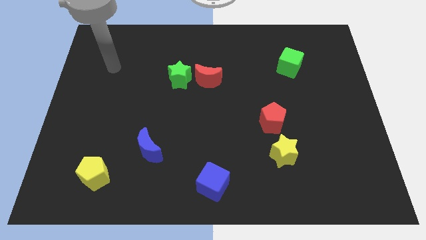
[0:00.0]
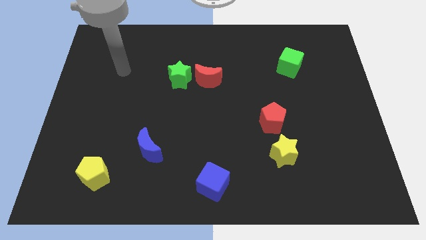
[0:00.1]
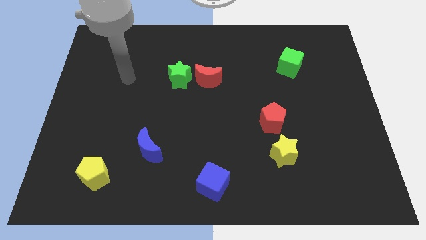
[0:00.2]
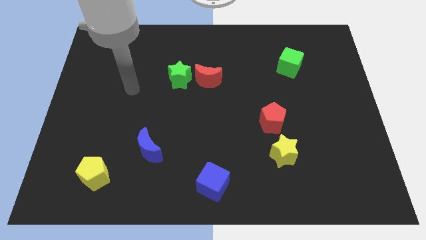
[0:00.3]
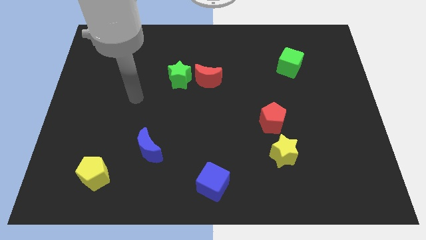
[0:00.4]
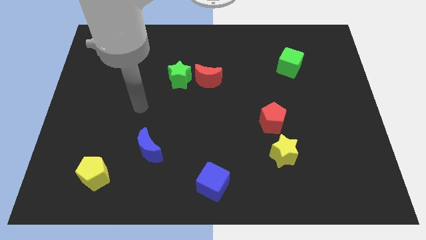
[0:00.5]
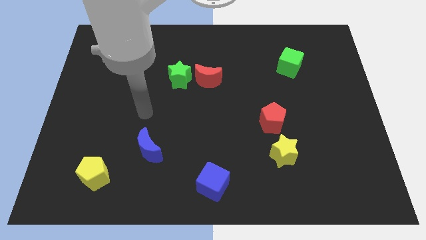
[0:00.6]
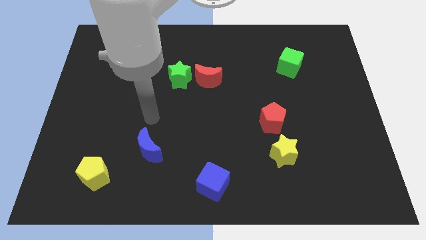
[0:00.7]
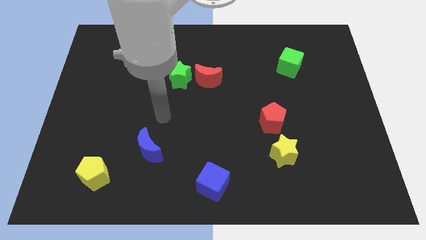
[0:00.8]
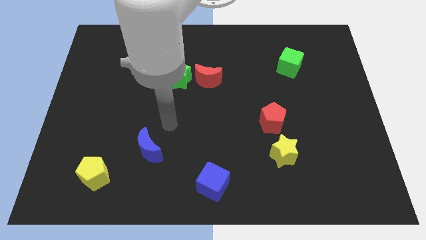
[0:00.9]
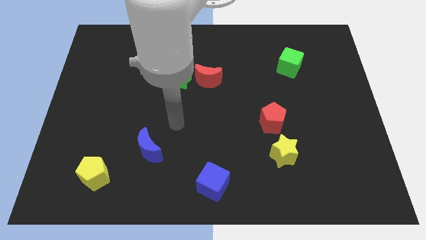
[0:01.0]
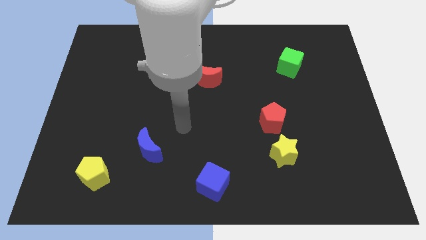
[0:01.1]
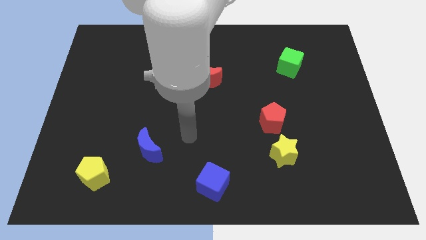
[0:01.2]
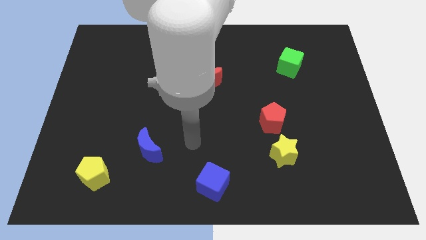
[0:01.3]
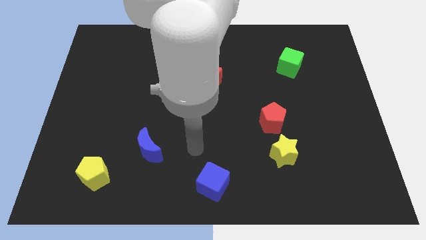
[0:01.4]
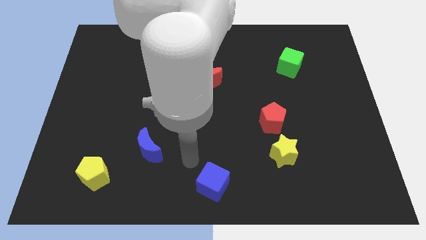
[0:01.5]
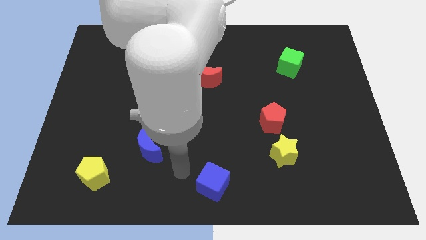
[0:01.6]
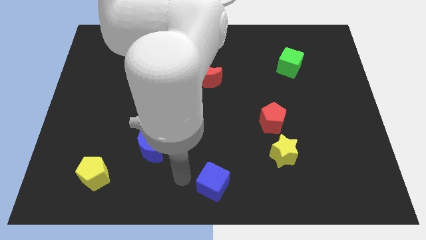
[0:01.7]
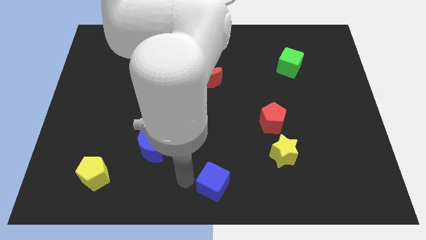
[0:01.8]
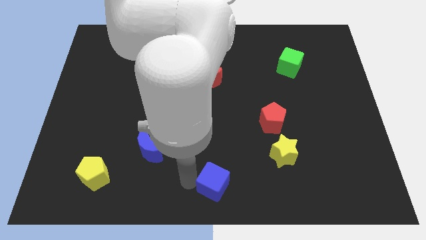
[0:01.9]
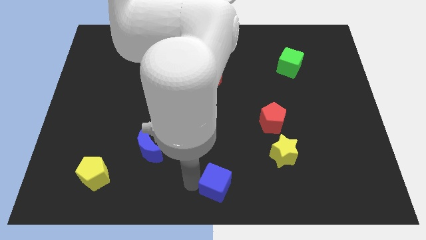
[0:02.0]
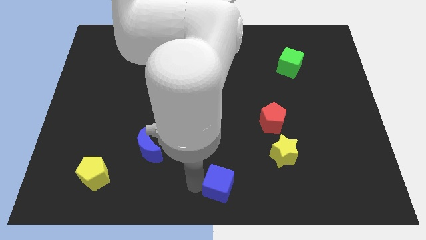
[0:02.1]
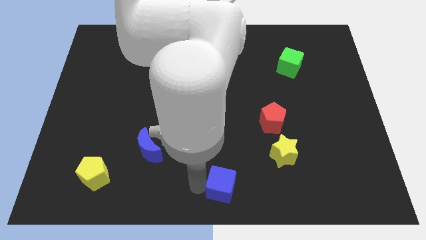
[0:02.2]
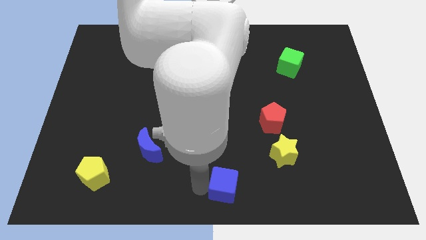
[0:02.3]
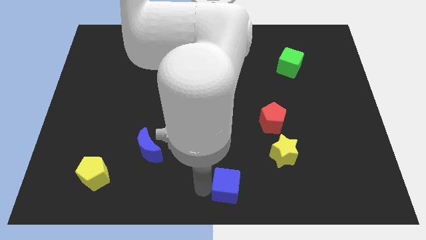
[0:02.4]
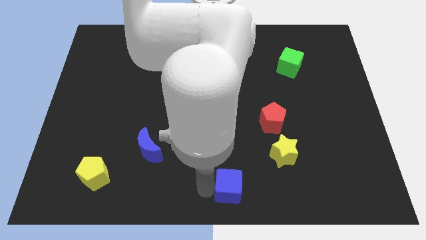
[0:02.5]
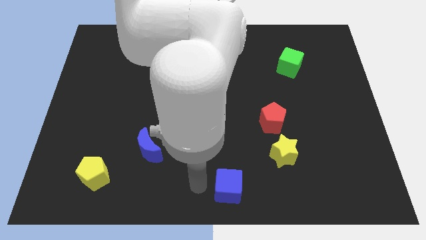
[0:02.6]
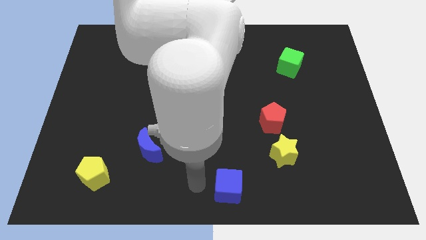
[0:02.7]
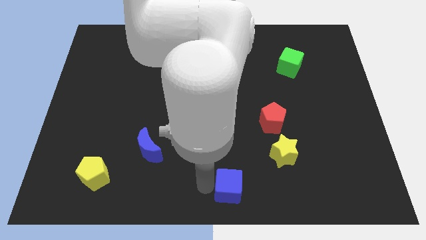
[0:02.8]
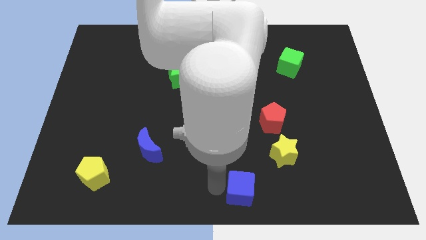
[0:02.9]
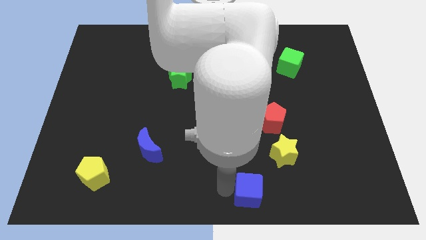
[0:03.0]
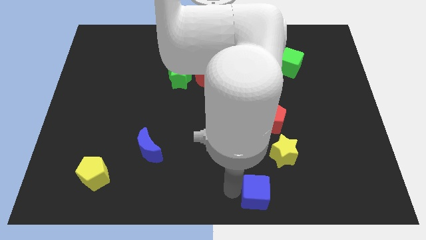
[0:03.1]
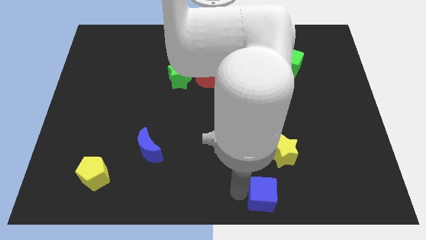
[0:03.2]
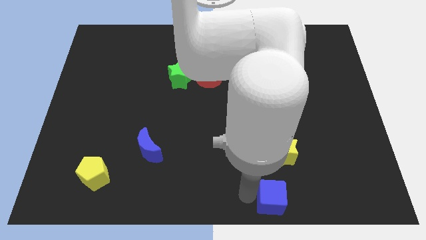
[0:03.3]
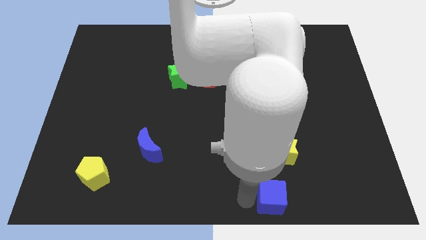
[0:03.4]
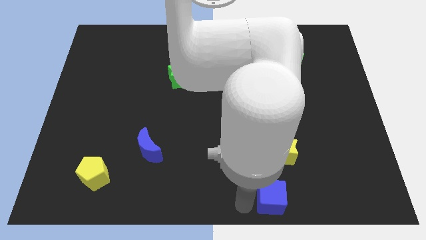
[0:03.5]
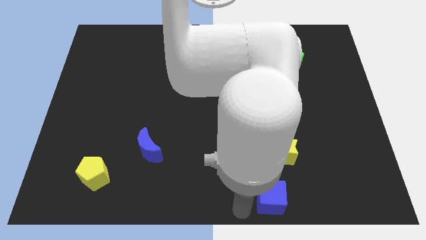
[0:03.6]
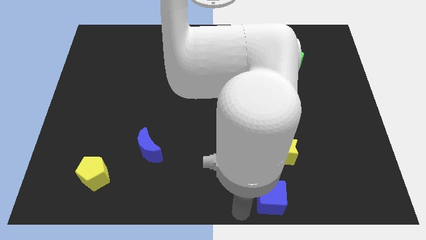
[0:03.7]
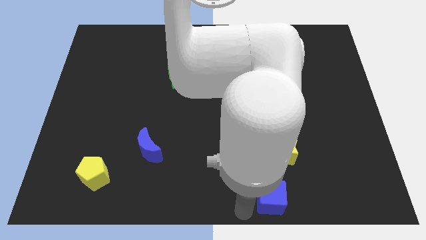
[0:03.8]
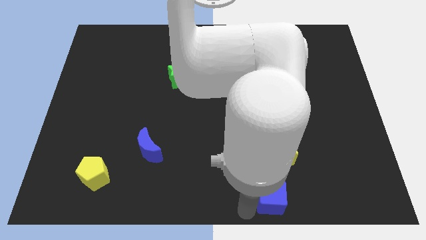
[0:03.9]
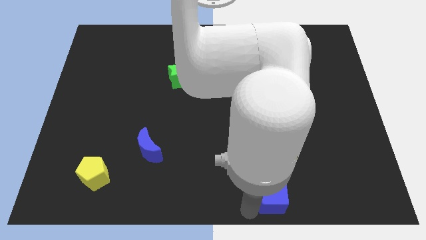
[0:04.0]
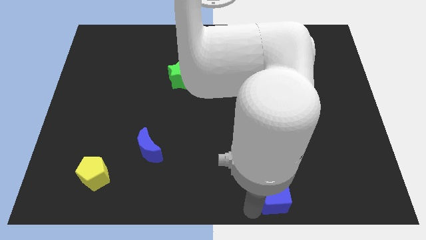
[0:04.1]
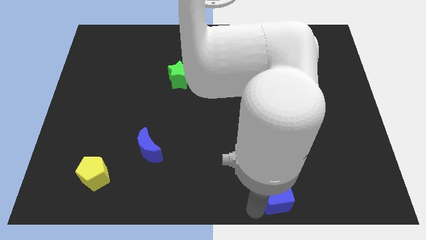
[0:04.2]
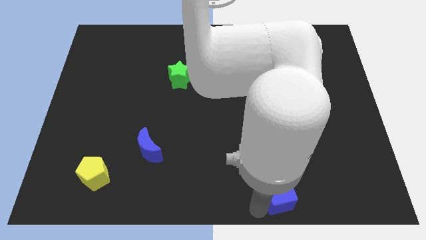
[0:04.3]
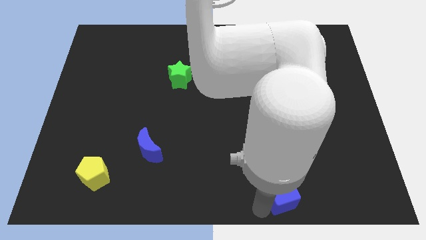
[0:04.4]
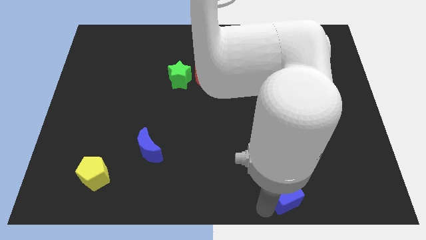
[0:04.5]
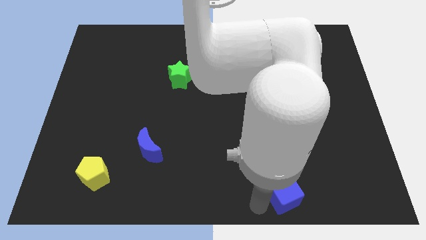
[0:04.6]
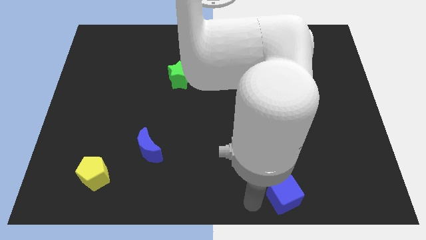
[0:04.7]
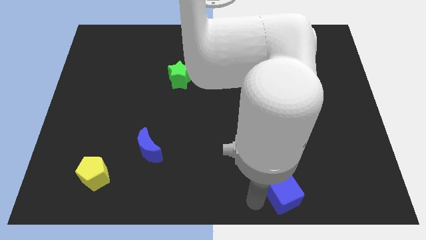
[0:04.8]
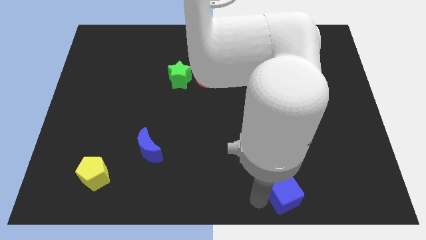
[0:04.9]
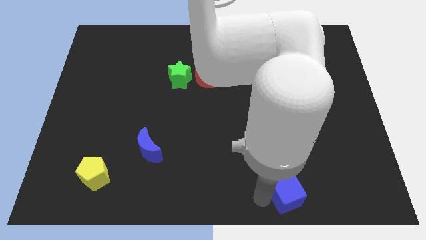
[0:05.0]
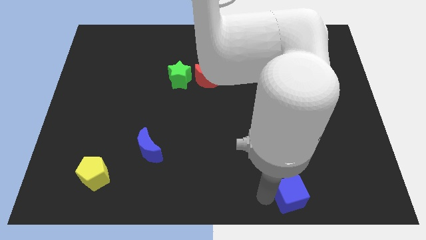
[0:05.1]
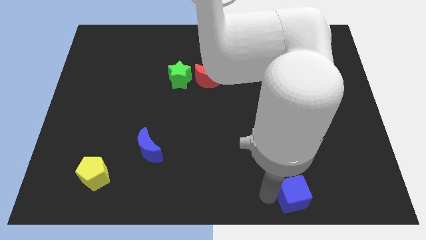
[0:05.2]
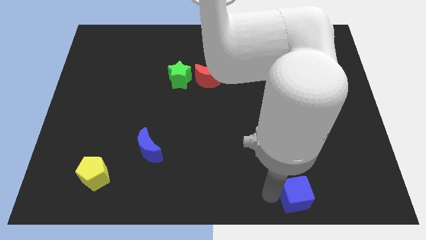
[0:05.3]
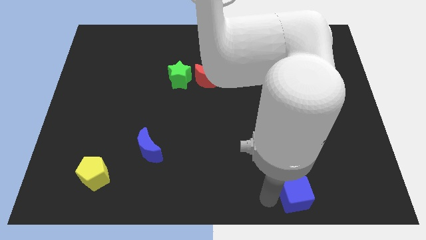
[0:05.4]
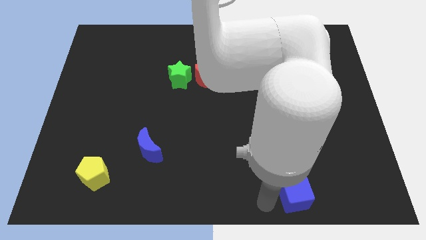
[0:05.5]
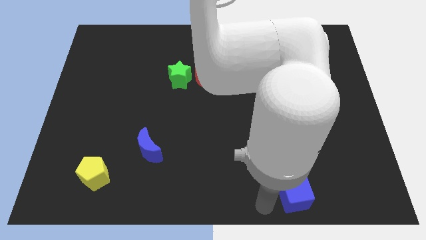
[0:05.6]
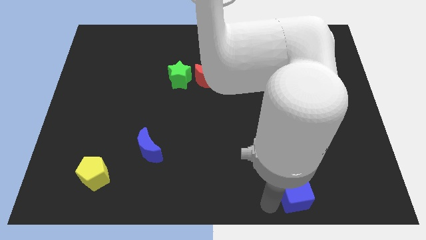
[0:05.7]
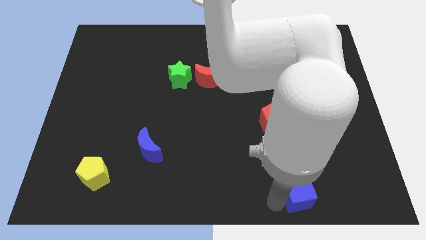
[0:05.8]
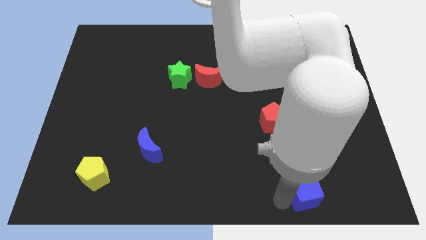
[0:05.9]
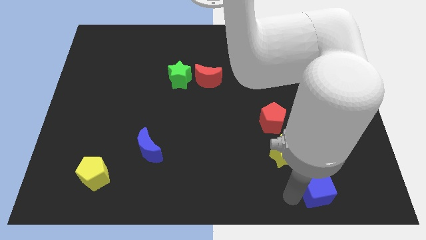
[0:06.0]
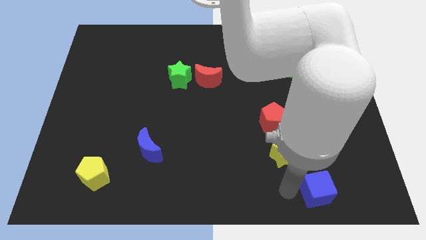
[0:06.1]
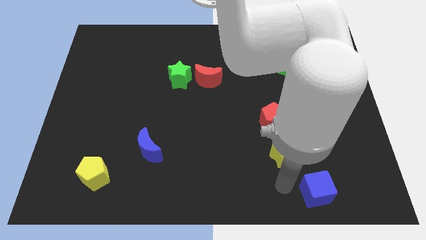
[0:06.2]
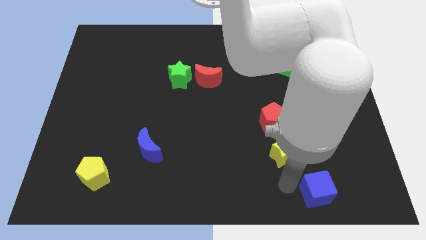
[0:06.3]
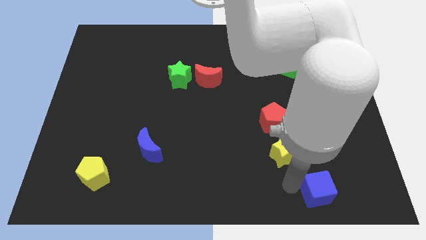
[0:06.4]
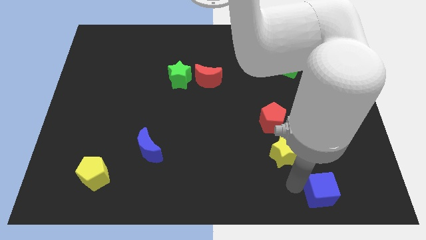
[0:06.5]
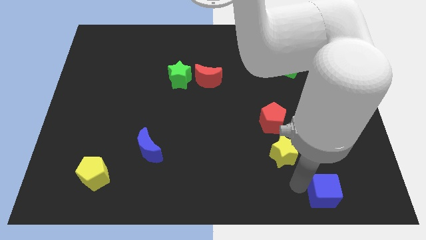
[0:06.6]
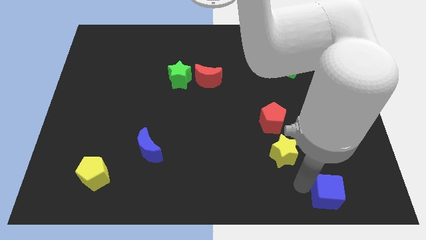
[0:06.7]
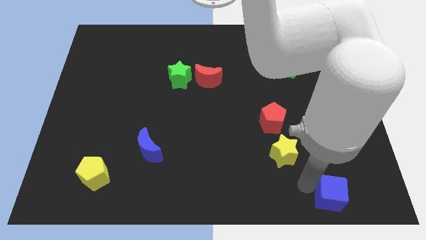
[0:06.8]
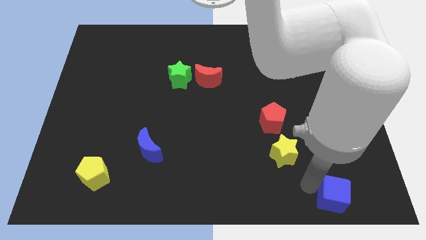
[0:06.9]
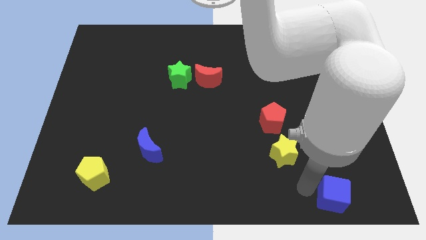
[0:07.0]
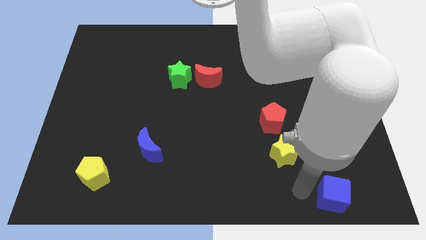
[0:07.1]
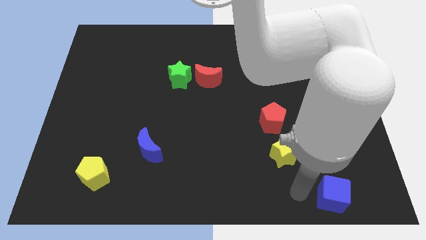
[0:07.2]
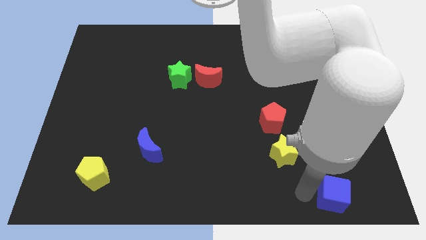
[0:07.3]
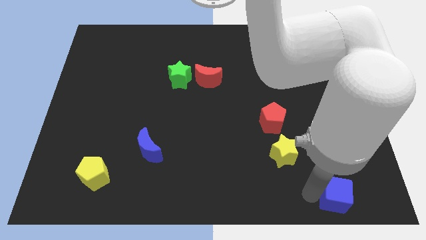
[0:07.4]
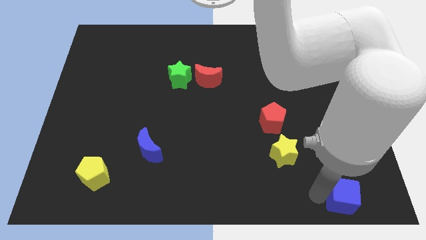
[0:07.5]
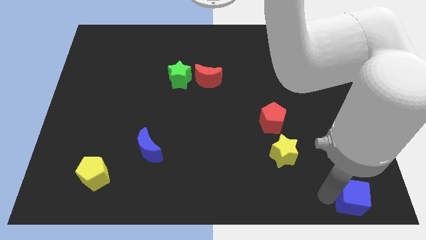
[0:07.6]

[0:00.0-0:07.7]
slide the blue cube to the bottom right of the board
